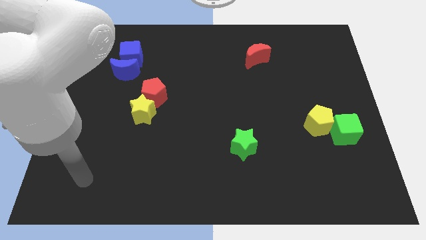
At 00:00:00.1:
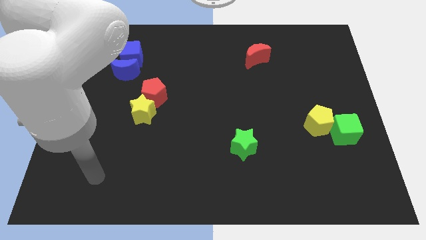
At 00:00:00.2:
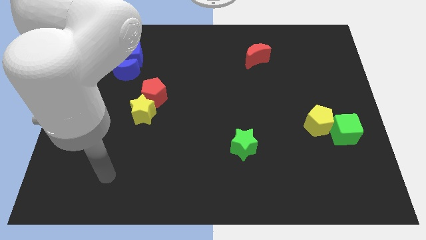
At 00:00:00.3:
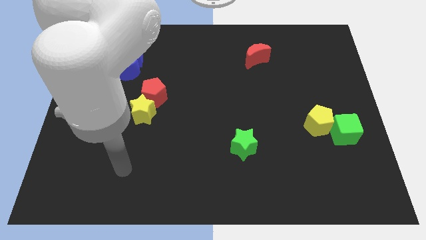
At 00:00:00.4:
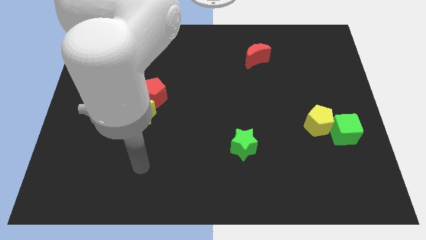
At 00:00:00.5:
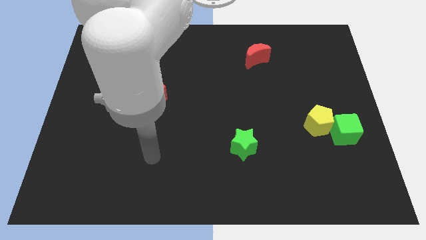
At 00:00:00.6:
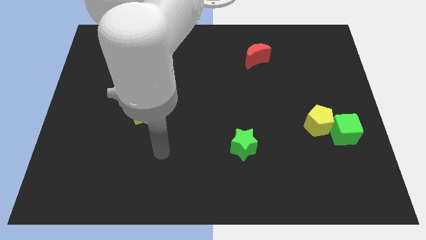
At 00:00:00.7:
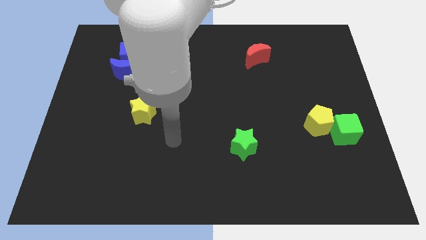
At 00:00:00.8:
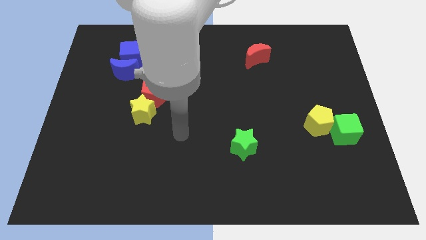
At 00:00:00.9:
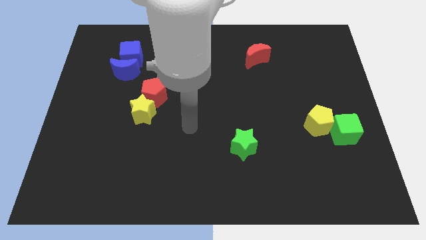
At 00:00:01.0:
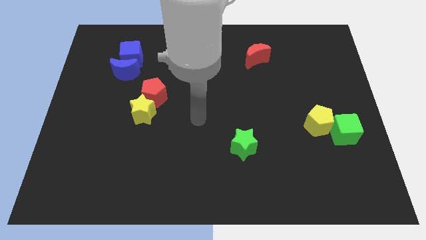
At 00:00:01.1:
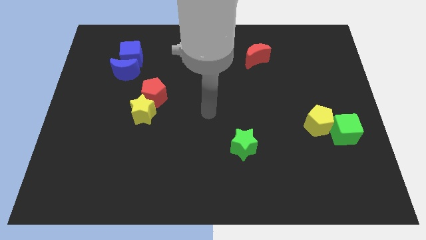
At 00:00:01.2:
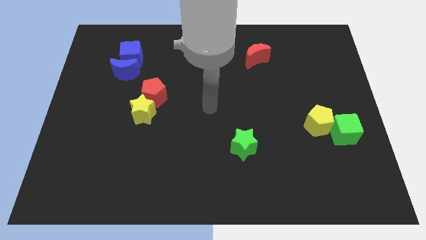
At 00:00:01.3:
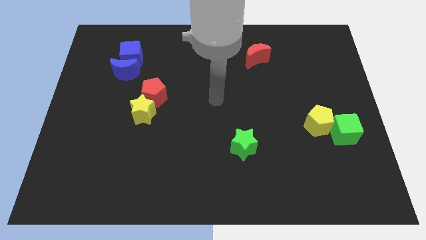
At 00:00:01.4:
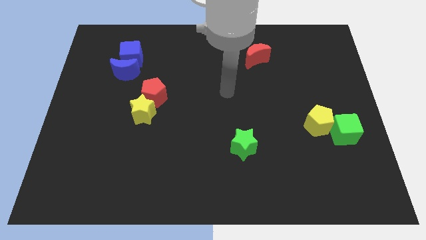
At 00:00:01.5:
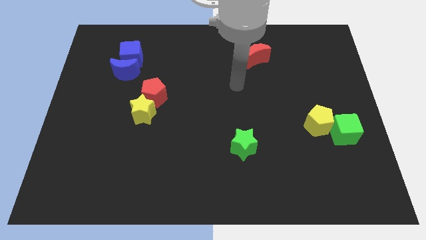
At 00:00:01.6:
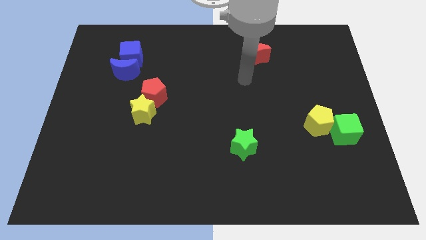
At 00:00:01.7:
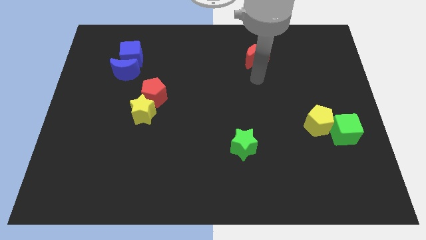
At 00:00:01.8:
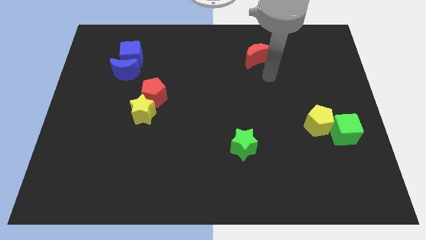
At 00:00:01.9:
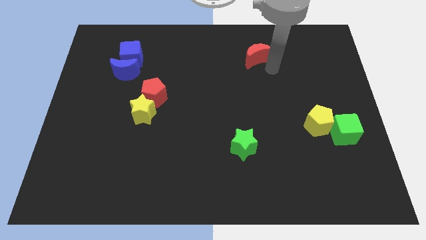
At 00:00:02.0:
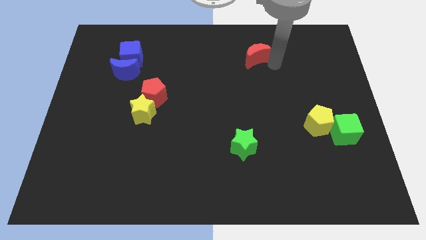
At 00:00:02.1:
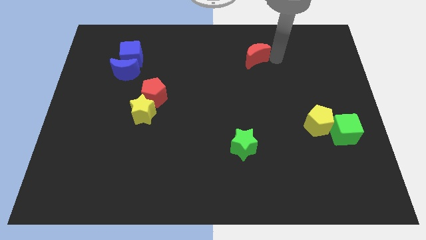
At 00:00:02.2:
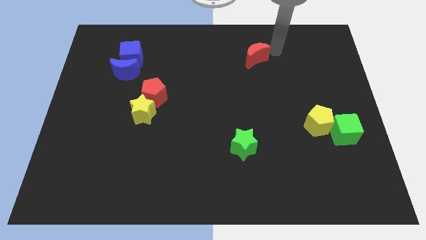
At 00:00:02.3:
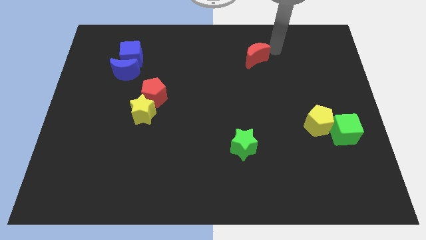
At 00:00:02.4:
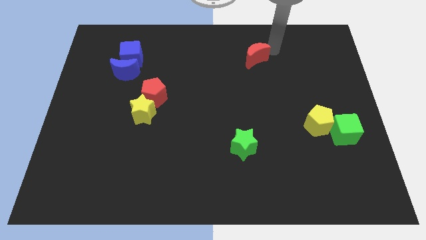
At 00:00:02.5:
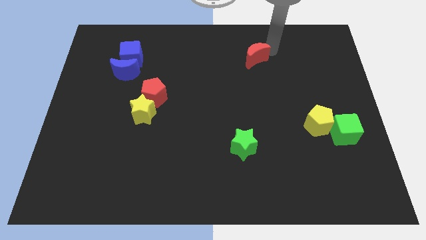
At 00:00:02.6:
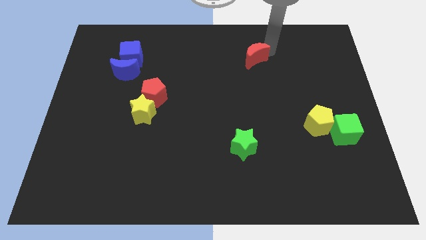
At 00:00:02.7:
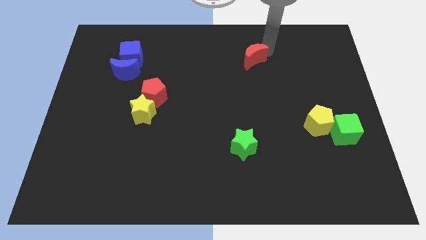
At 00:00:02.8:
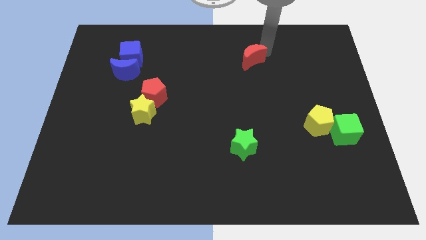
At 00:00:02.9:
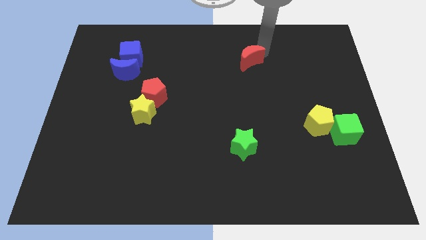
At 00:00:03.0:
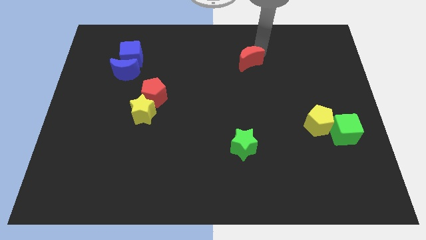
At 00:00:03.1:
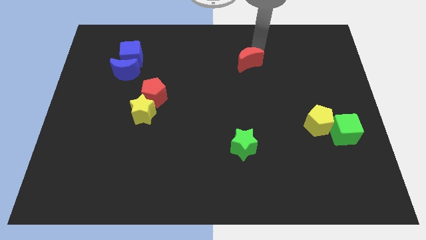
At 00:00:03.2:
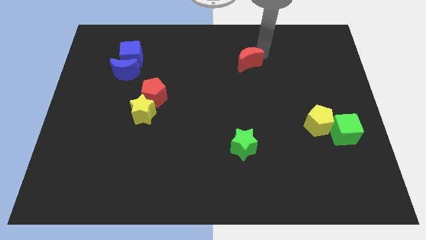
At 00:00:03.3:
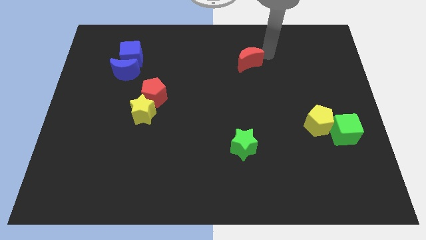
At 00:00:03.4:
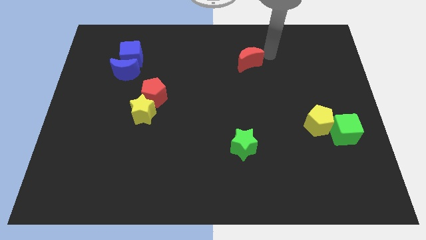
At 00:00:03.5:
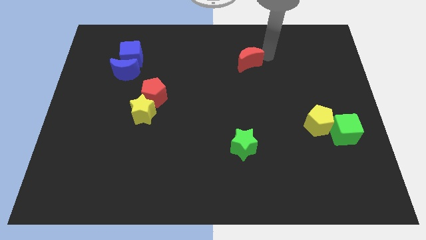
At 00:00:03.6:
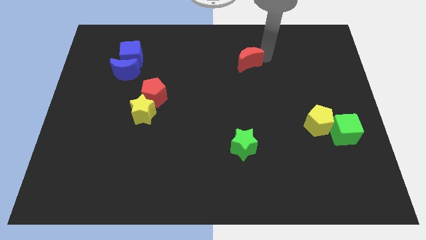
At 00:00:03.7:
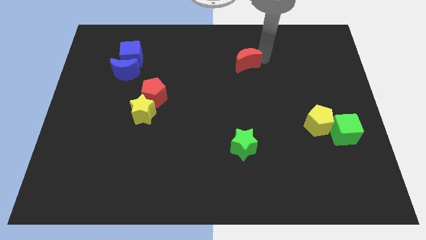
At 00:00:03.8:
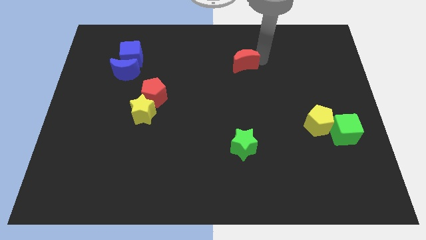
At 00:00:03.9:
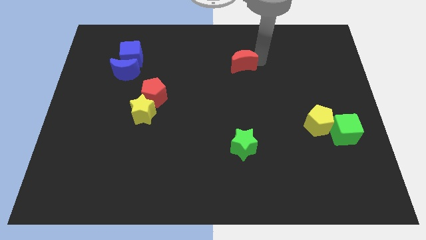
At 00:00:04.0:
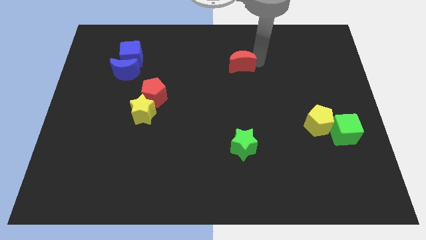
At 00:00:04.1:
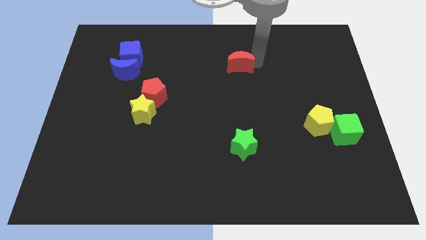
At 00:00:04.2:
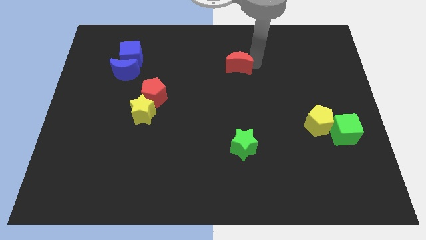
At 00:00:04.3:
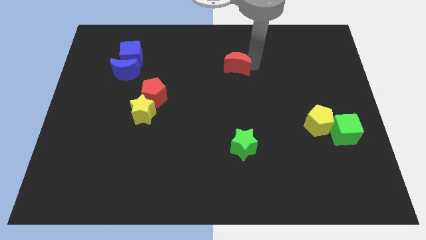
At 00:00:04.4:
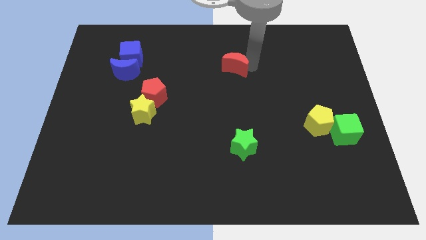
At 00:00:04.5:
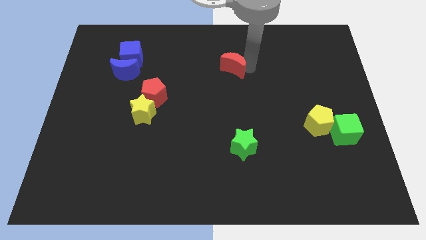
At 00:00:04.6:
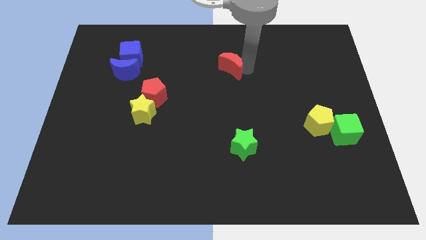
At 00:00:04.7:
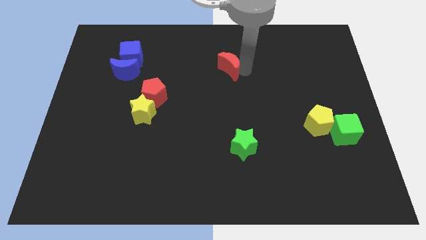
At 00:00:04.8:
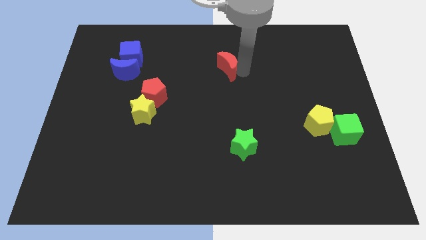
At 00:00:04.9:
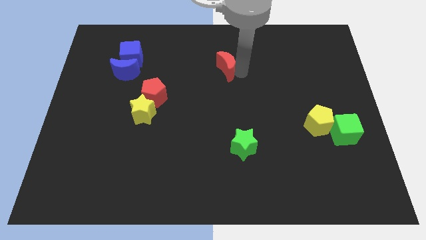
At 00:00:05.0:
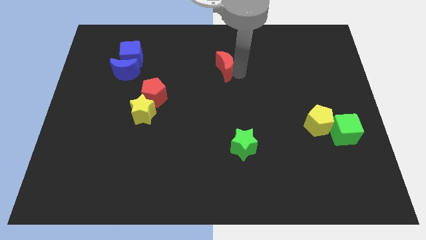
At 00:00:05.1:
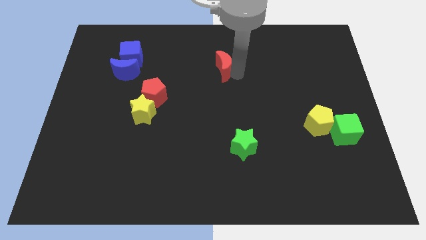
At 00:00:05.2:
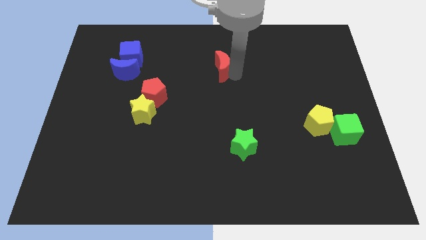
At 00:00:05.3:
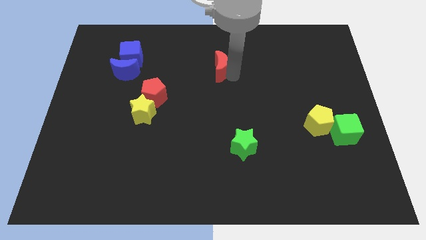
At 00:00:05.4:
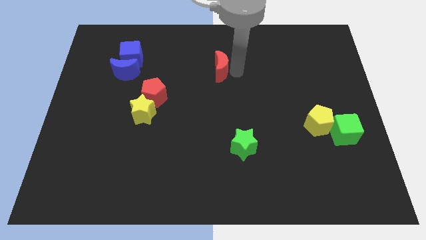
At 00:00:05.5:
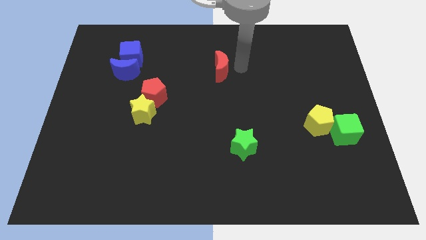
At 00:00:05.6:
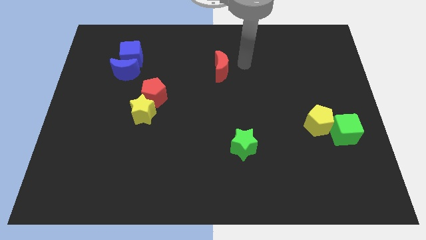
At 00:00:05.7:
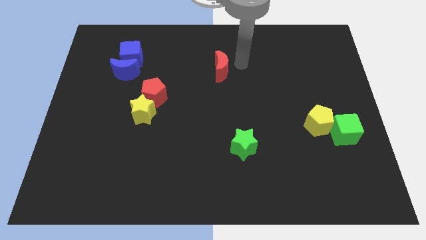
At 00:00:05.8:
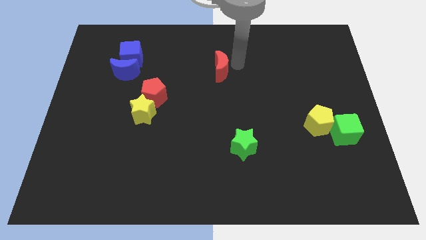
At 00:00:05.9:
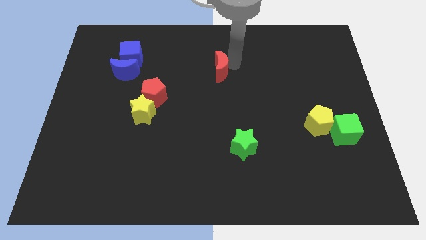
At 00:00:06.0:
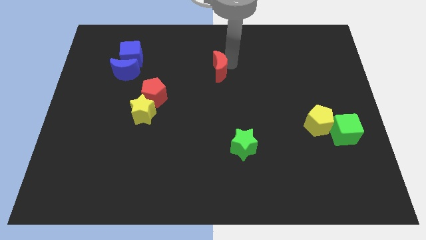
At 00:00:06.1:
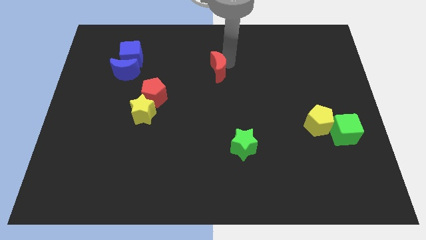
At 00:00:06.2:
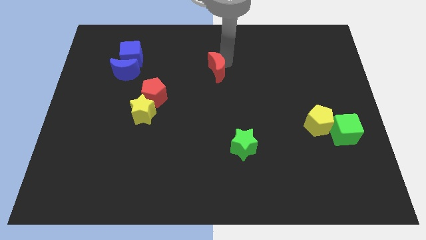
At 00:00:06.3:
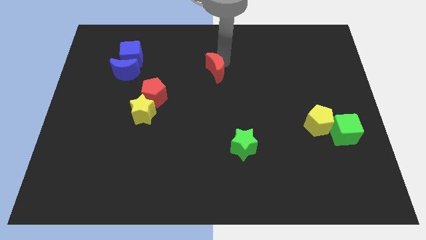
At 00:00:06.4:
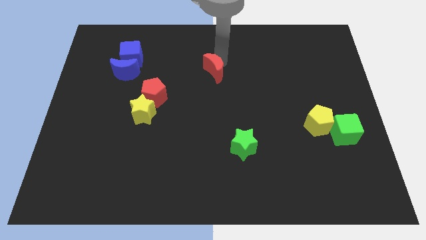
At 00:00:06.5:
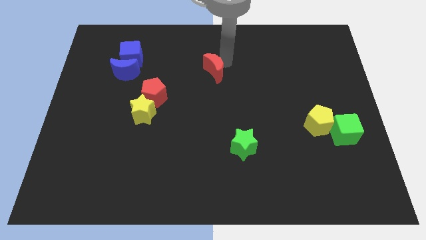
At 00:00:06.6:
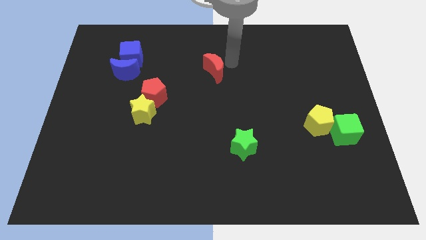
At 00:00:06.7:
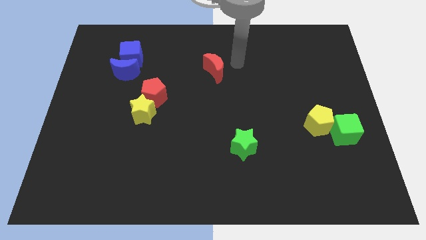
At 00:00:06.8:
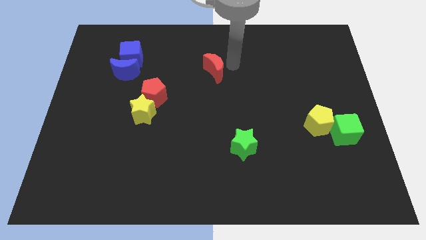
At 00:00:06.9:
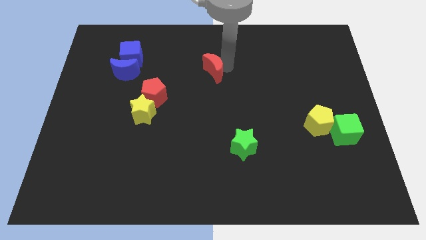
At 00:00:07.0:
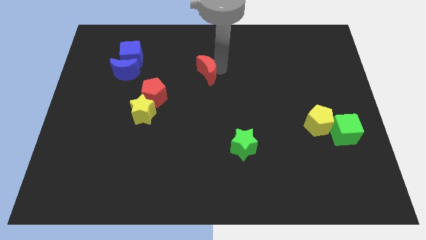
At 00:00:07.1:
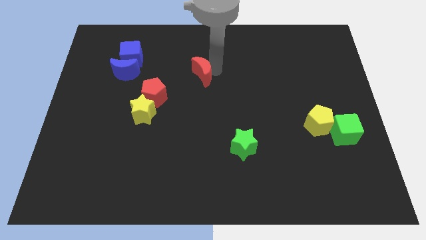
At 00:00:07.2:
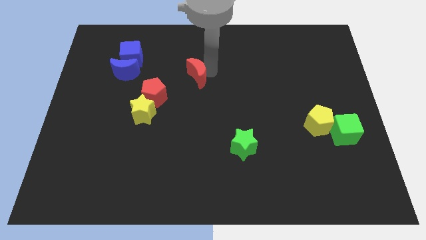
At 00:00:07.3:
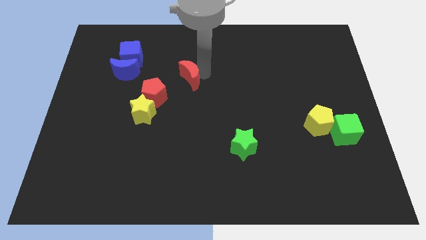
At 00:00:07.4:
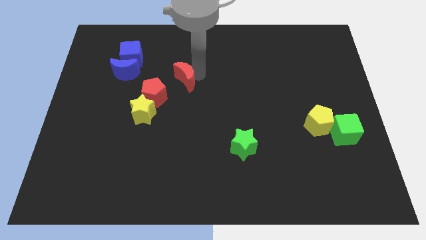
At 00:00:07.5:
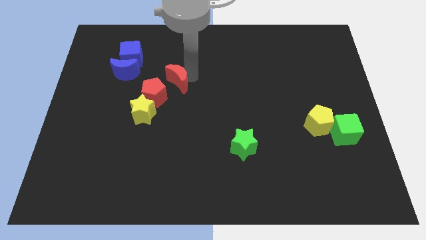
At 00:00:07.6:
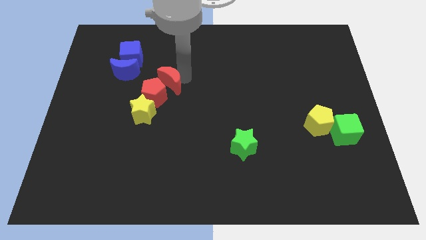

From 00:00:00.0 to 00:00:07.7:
put the red moon next to the red pentagon
